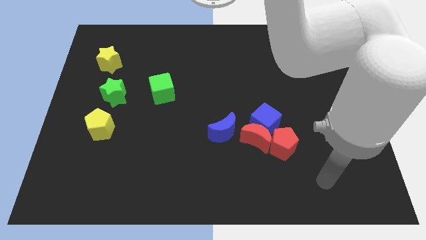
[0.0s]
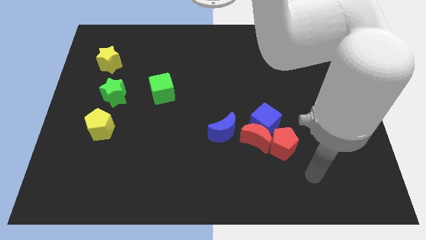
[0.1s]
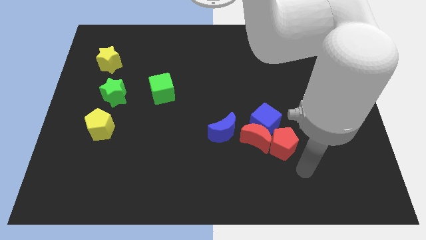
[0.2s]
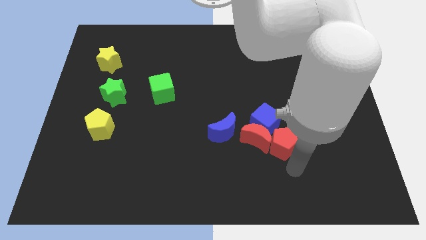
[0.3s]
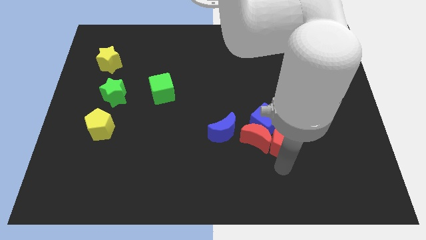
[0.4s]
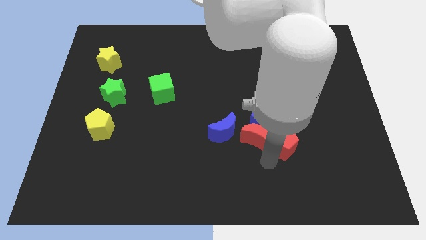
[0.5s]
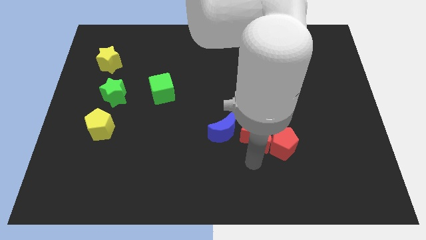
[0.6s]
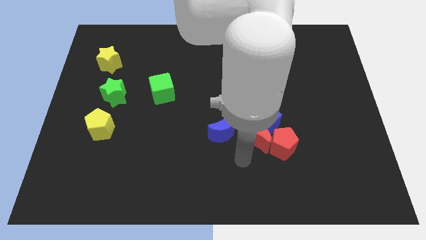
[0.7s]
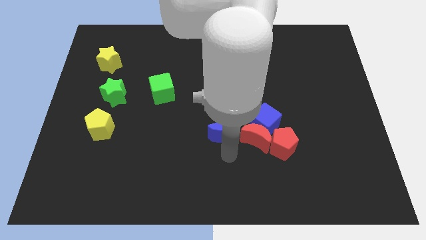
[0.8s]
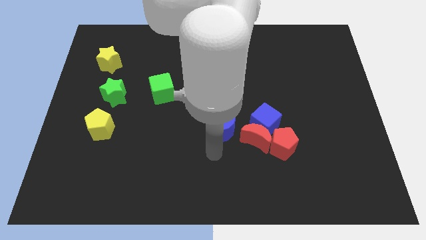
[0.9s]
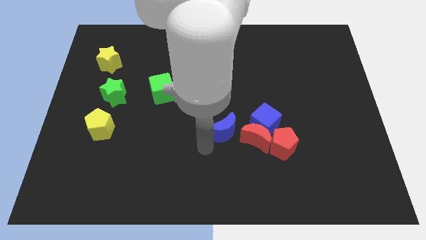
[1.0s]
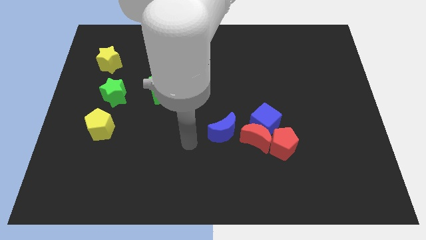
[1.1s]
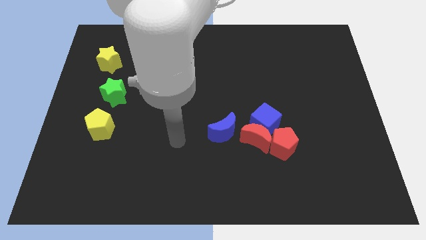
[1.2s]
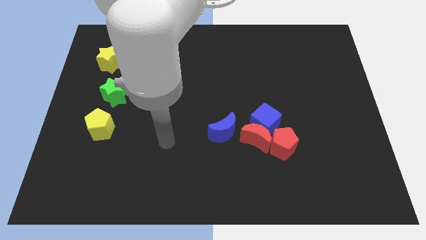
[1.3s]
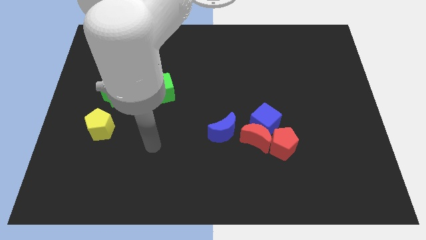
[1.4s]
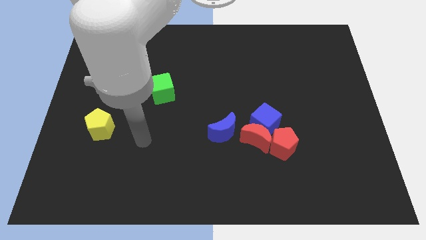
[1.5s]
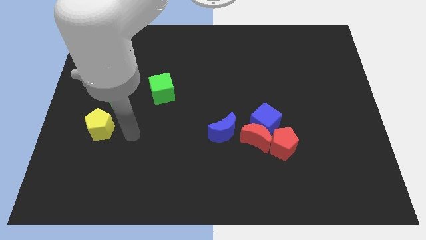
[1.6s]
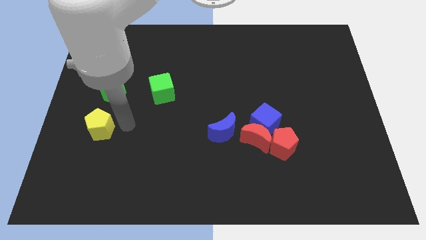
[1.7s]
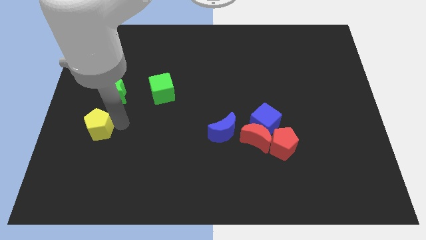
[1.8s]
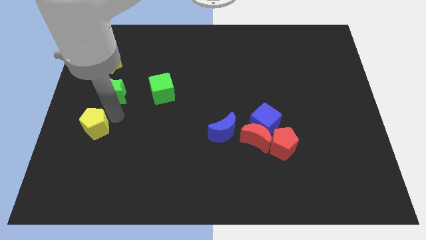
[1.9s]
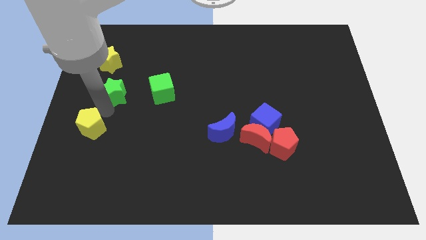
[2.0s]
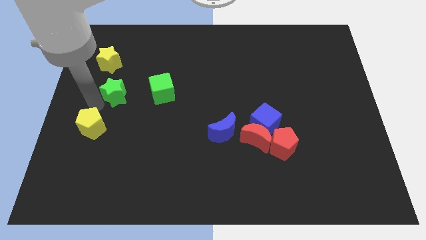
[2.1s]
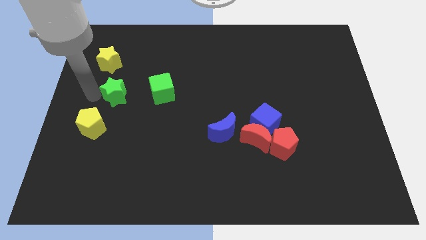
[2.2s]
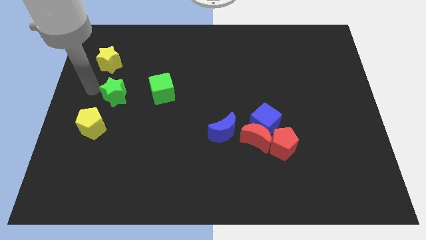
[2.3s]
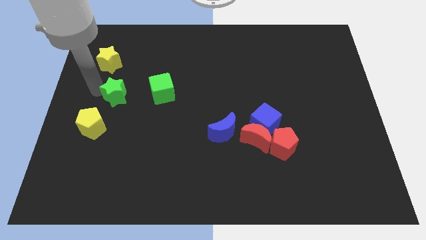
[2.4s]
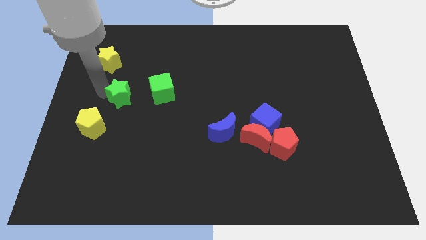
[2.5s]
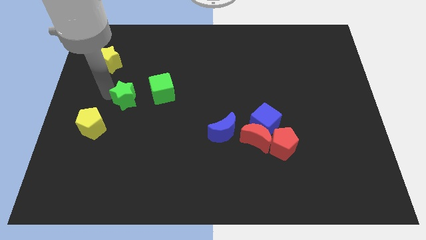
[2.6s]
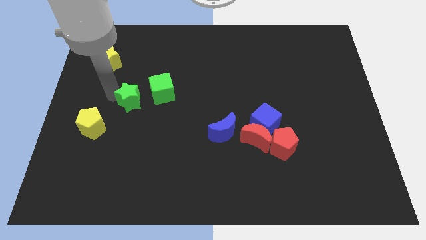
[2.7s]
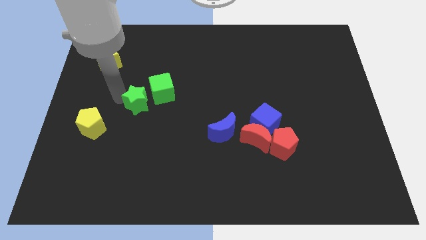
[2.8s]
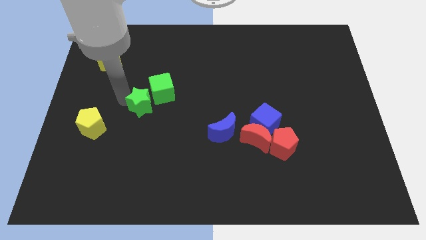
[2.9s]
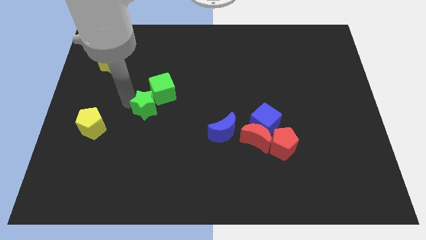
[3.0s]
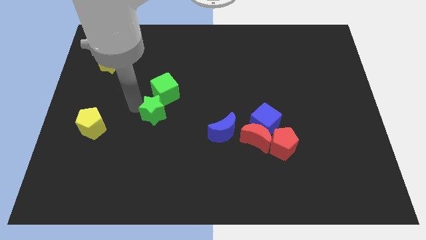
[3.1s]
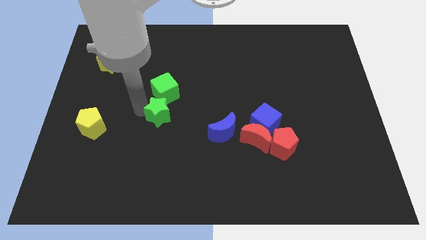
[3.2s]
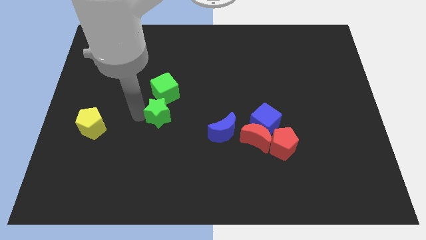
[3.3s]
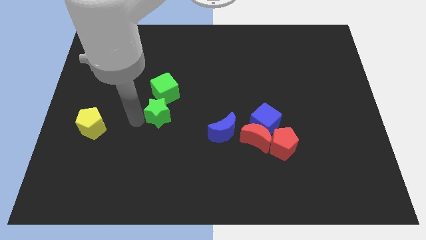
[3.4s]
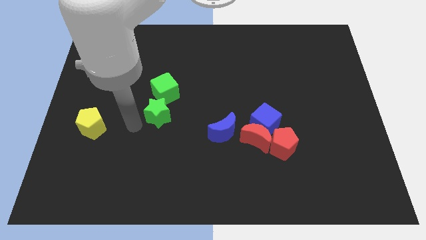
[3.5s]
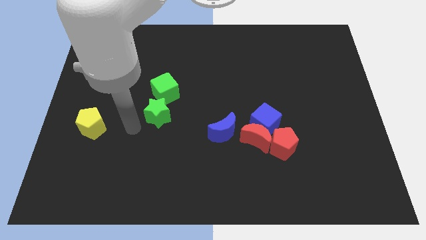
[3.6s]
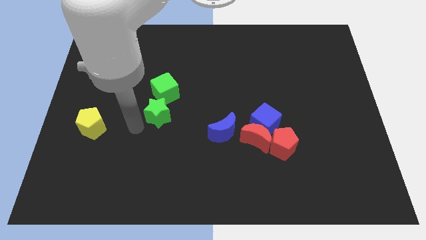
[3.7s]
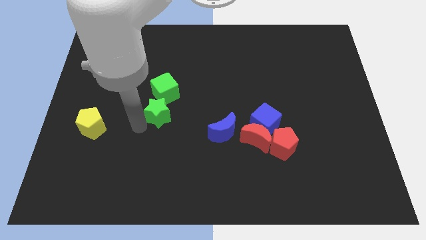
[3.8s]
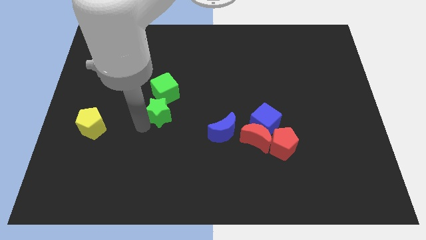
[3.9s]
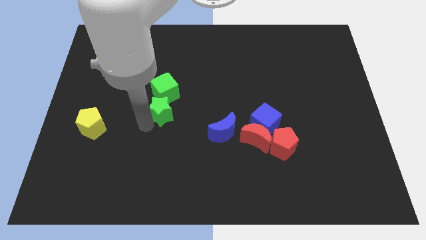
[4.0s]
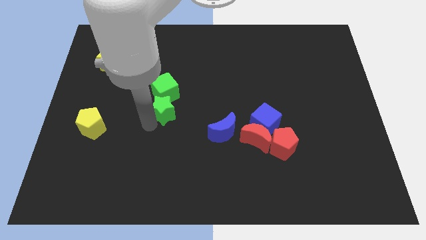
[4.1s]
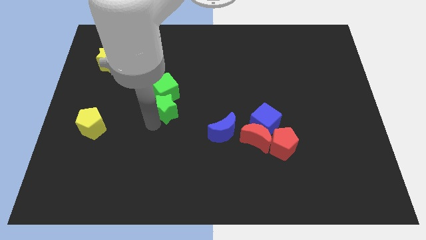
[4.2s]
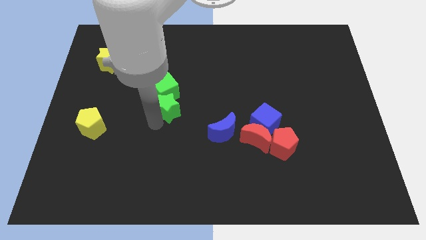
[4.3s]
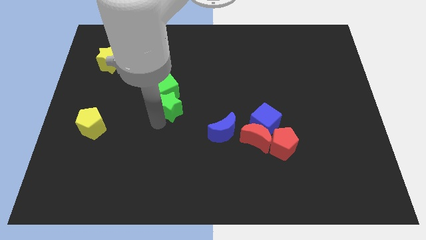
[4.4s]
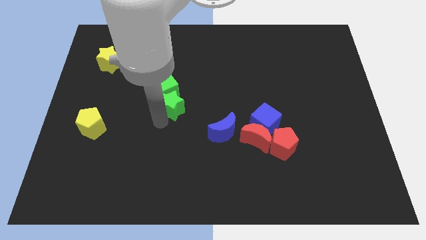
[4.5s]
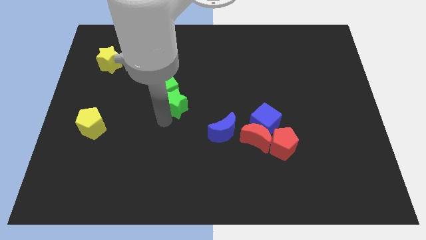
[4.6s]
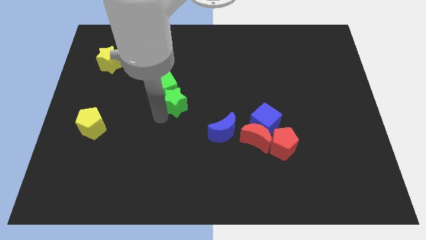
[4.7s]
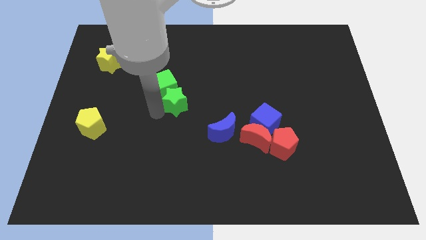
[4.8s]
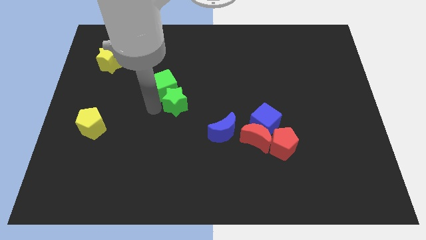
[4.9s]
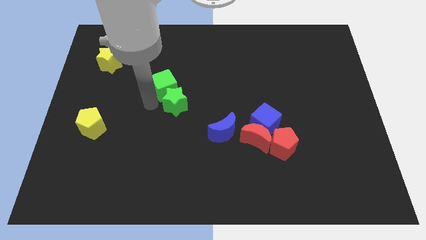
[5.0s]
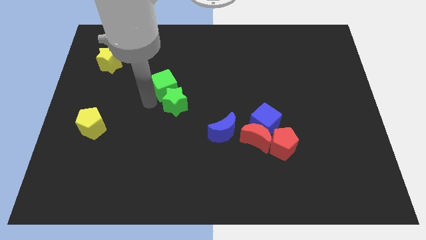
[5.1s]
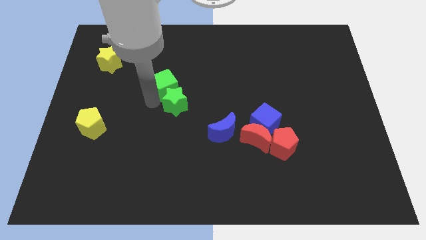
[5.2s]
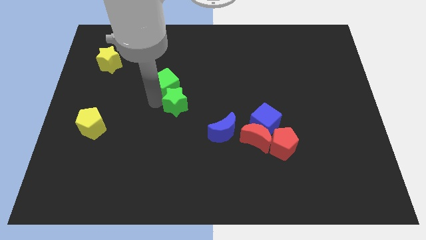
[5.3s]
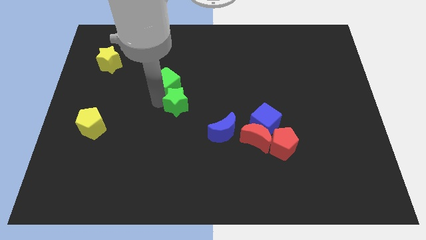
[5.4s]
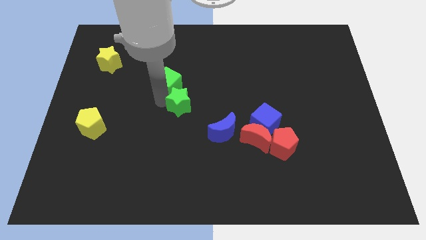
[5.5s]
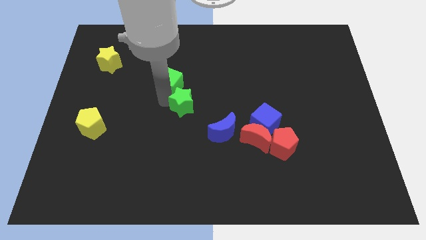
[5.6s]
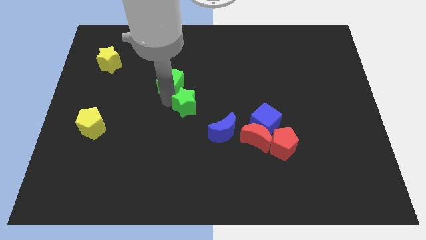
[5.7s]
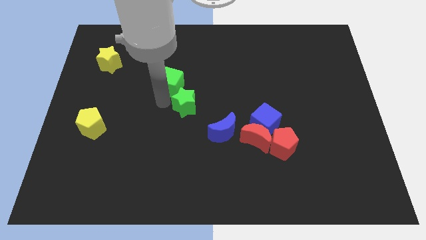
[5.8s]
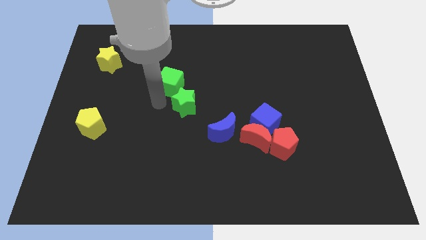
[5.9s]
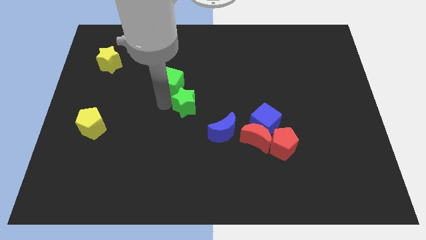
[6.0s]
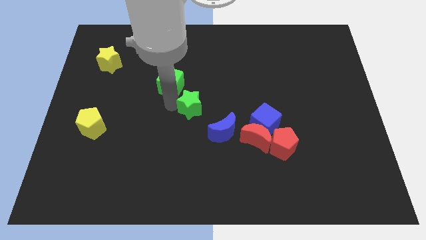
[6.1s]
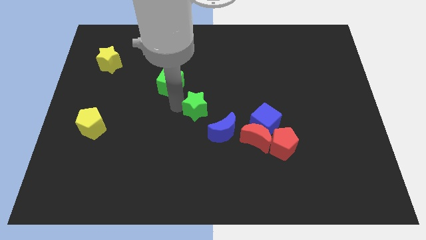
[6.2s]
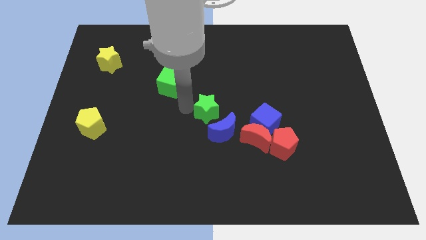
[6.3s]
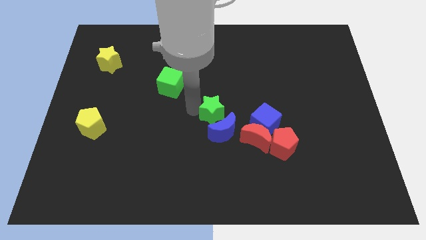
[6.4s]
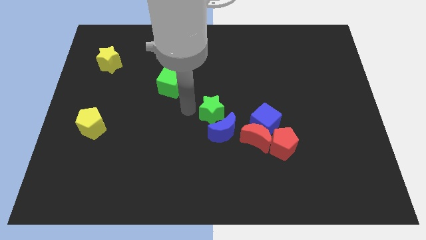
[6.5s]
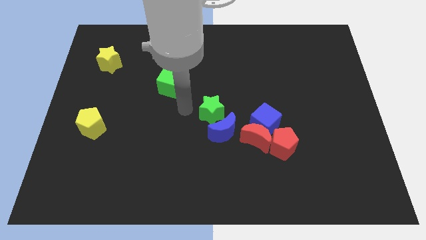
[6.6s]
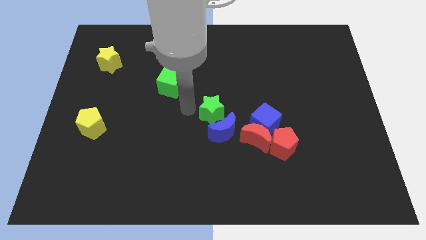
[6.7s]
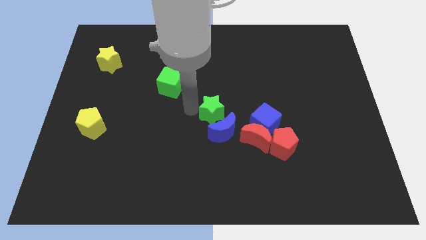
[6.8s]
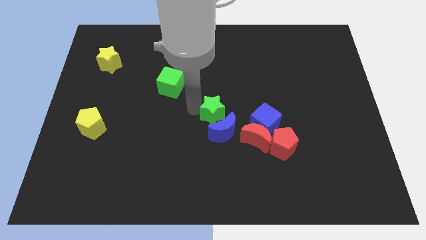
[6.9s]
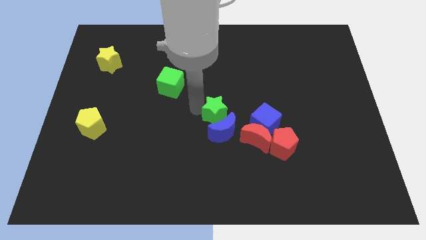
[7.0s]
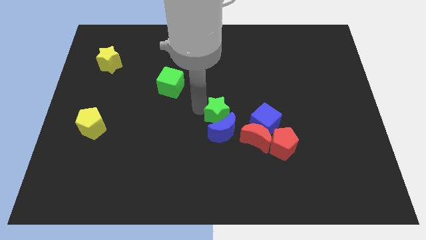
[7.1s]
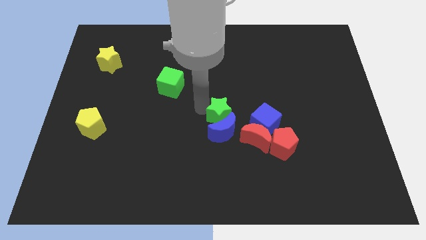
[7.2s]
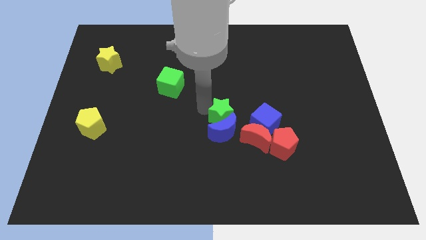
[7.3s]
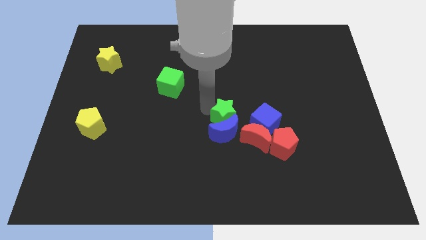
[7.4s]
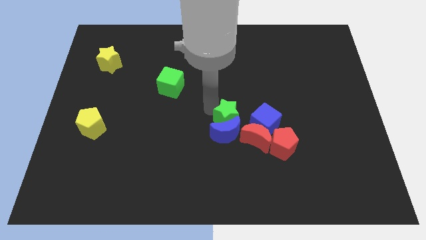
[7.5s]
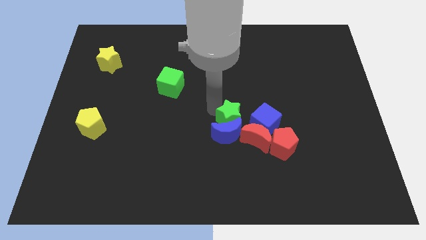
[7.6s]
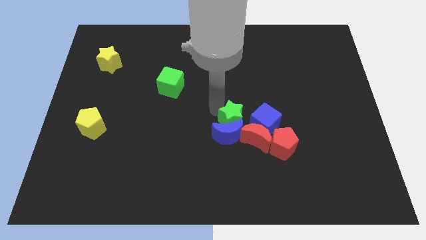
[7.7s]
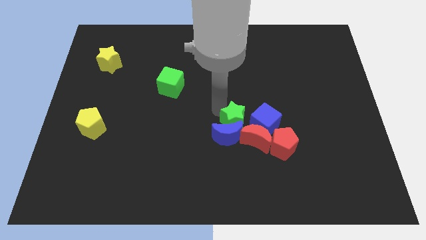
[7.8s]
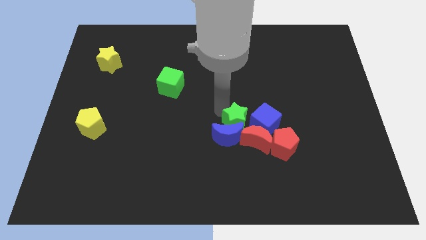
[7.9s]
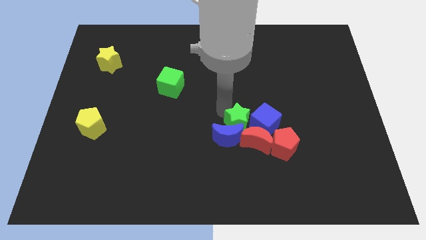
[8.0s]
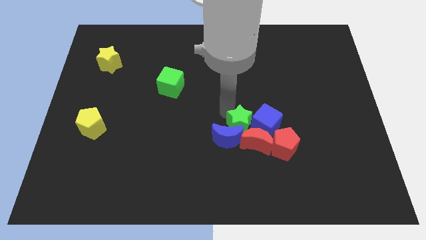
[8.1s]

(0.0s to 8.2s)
slide the green star close to the red moon
